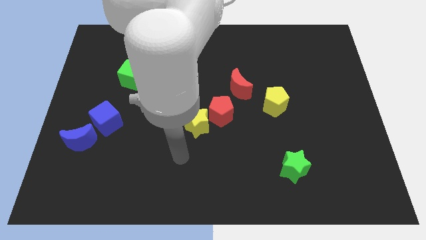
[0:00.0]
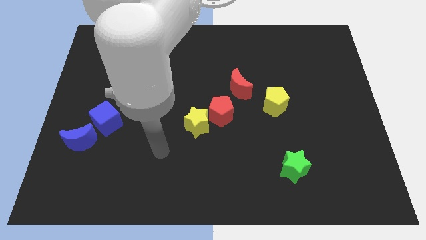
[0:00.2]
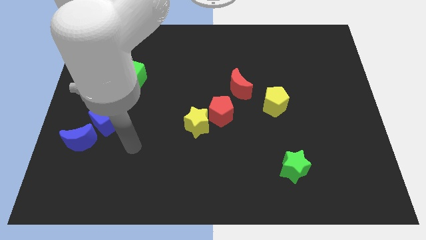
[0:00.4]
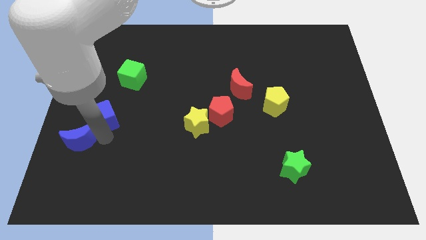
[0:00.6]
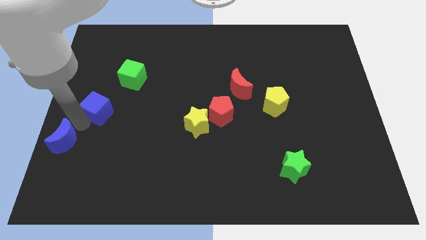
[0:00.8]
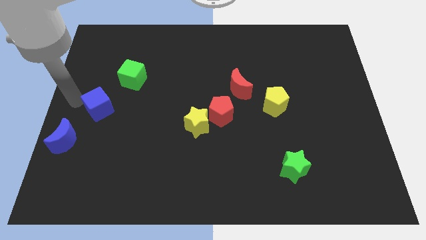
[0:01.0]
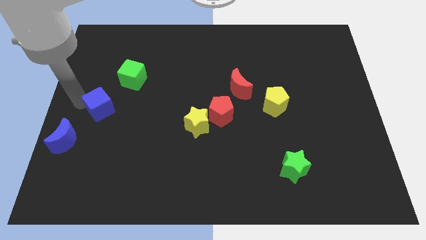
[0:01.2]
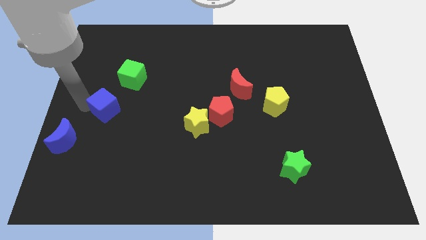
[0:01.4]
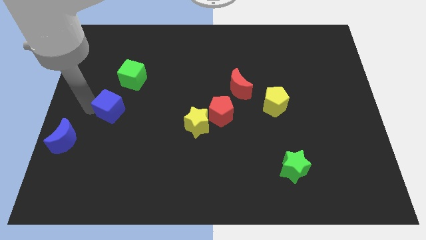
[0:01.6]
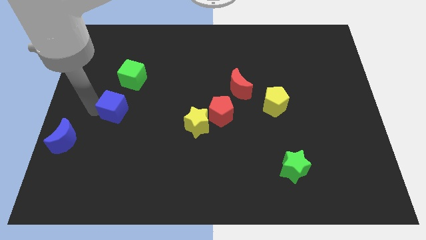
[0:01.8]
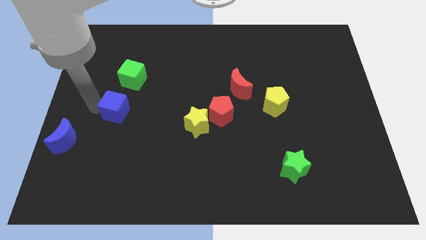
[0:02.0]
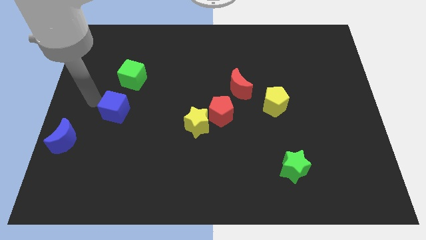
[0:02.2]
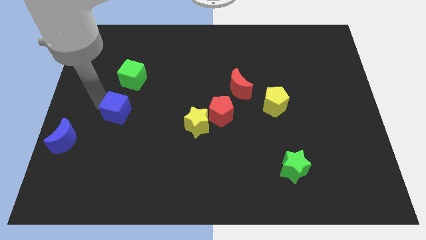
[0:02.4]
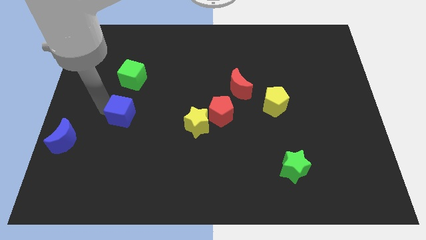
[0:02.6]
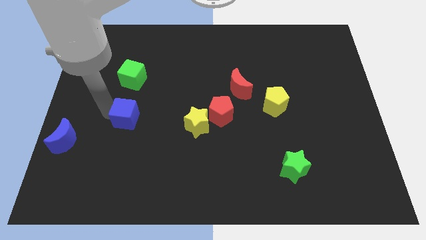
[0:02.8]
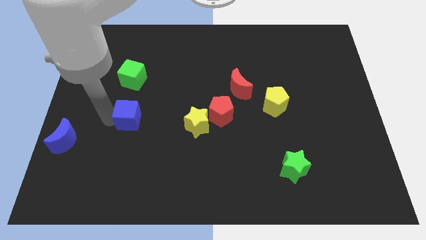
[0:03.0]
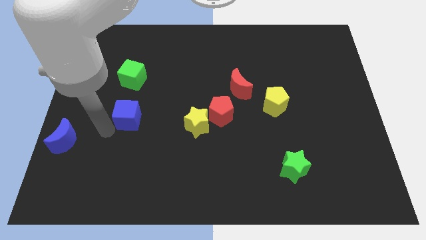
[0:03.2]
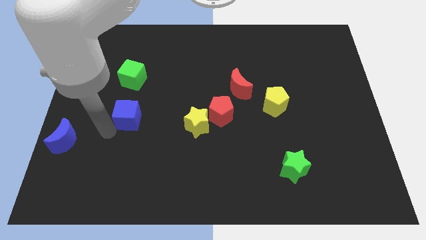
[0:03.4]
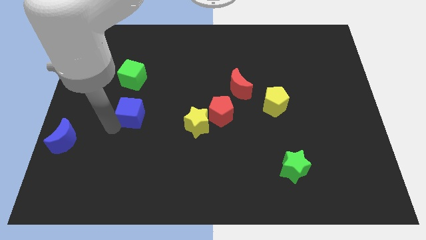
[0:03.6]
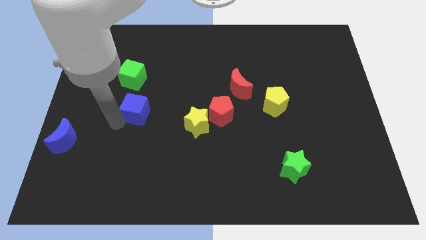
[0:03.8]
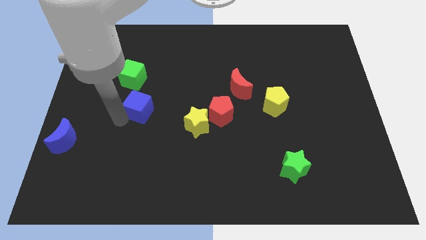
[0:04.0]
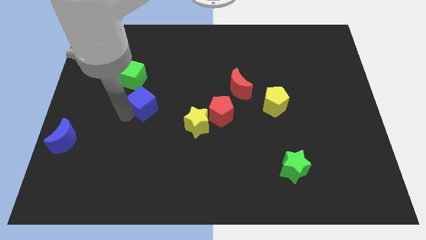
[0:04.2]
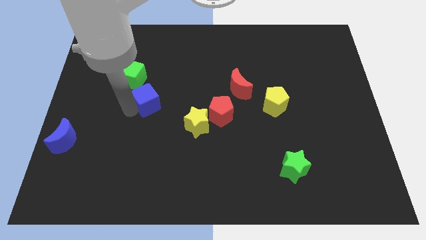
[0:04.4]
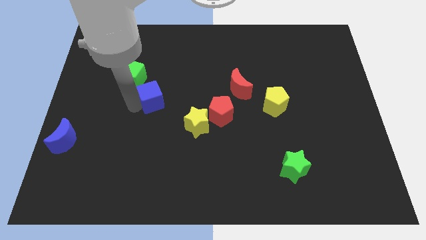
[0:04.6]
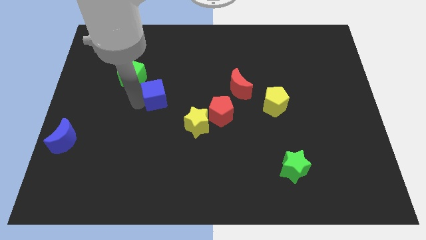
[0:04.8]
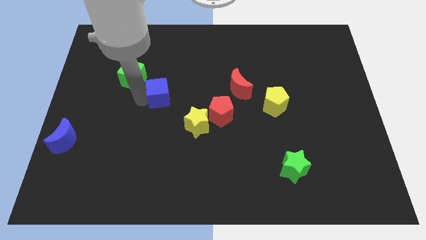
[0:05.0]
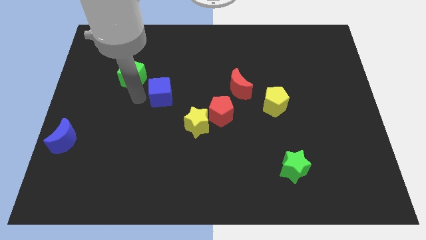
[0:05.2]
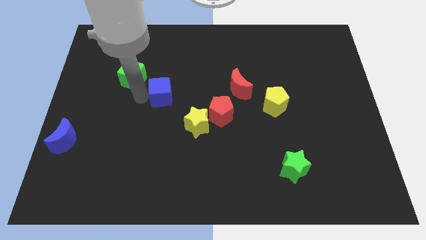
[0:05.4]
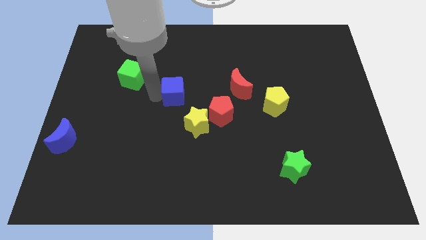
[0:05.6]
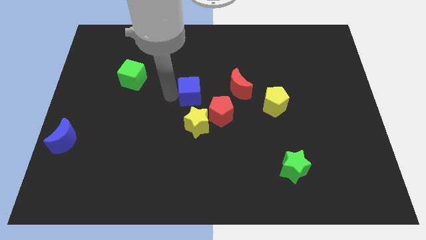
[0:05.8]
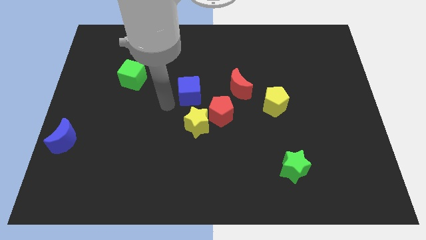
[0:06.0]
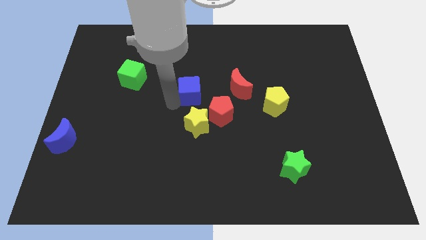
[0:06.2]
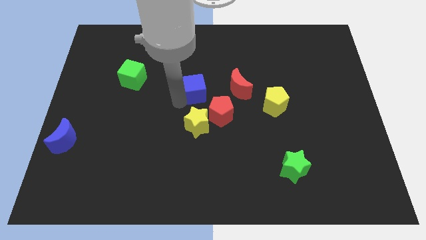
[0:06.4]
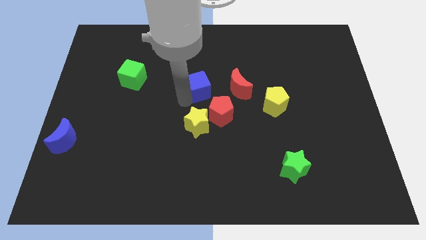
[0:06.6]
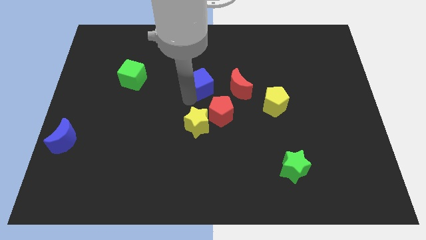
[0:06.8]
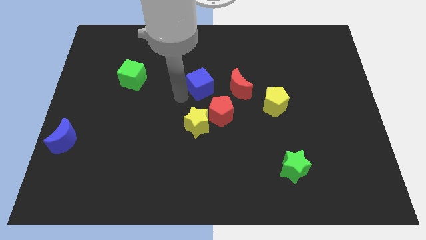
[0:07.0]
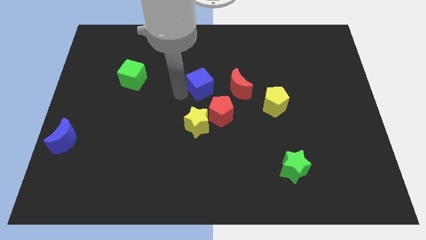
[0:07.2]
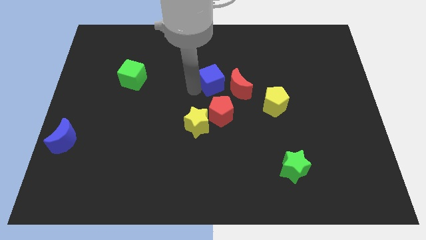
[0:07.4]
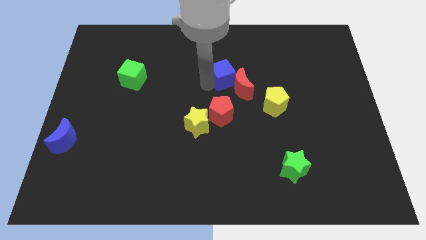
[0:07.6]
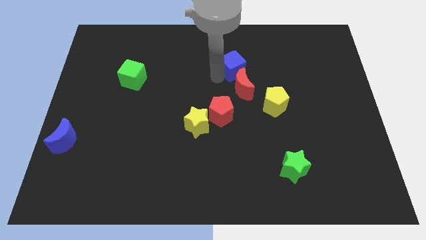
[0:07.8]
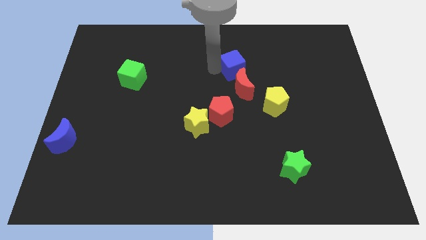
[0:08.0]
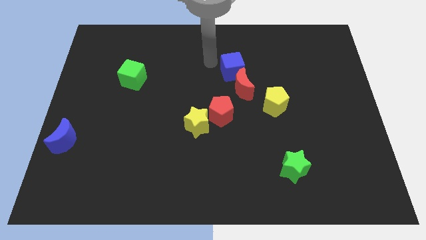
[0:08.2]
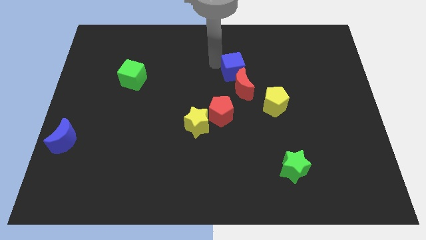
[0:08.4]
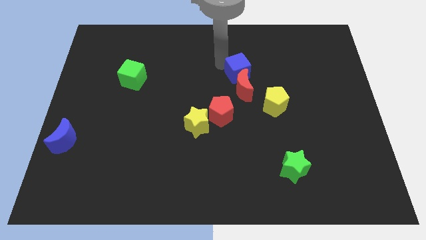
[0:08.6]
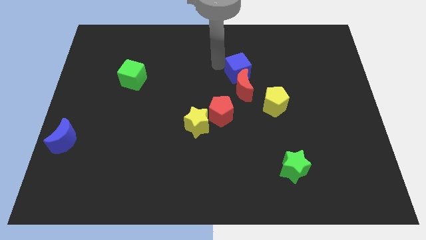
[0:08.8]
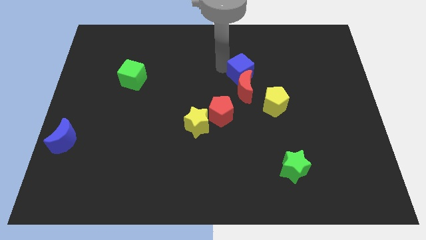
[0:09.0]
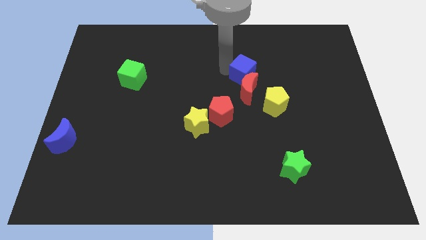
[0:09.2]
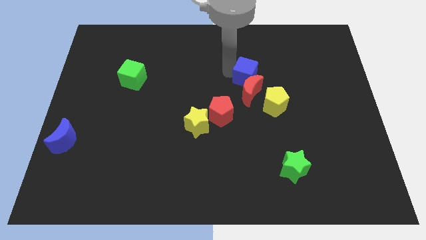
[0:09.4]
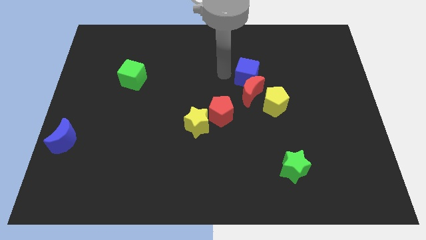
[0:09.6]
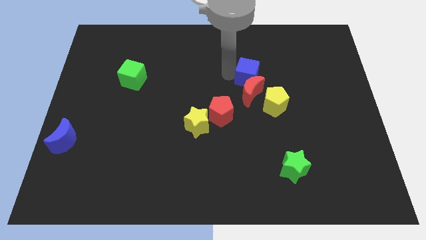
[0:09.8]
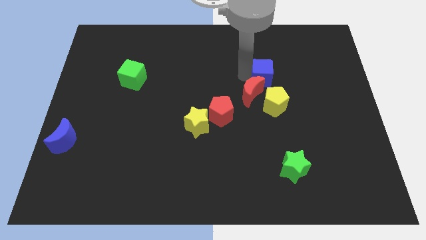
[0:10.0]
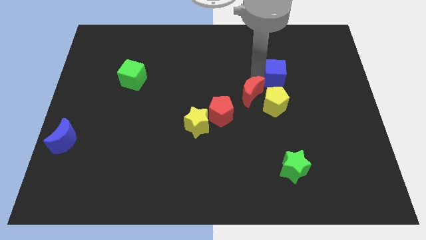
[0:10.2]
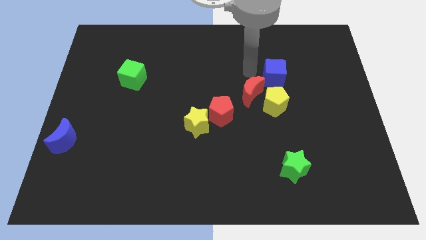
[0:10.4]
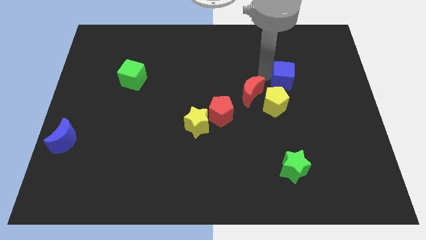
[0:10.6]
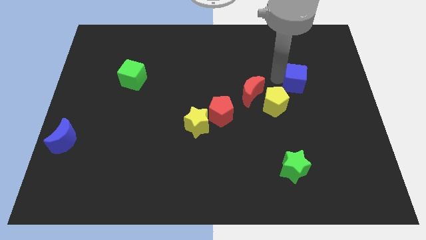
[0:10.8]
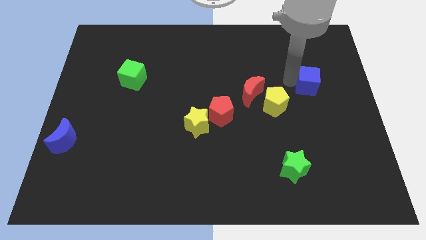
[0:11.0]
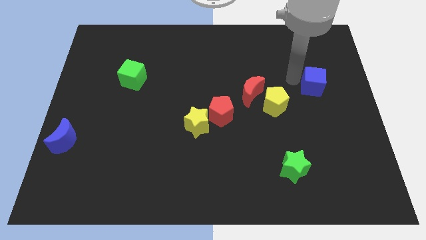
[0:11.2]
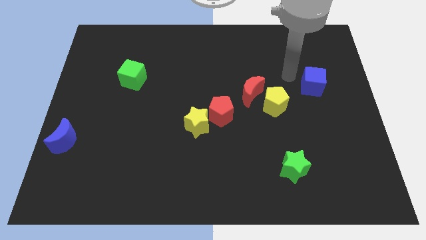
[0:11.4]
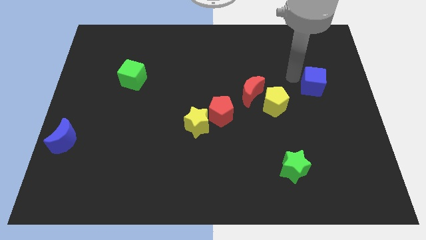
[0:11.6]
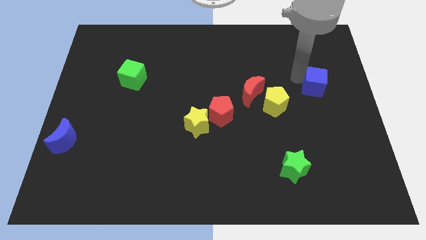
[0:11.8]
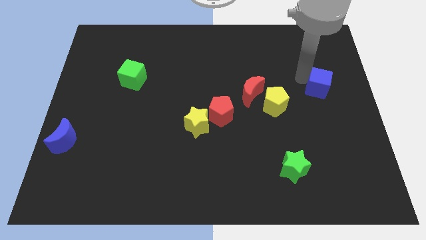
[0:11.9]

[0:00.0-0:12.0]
put the blue cube to the right side

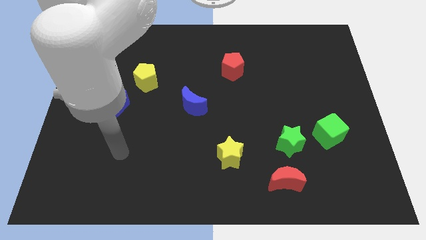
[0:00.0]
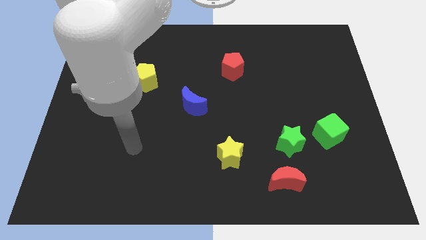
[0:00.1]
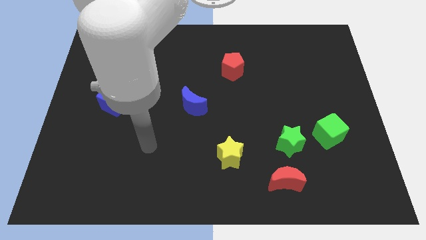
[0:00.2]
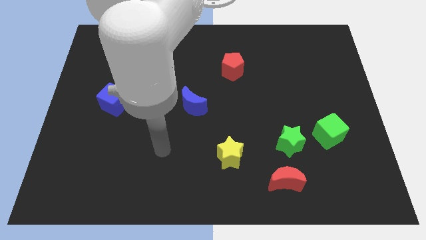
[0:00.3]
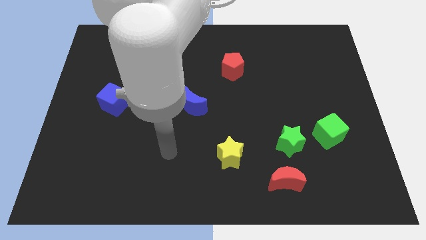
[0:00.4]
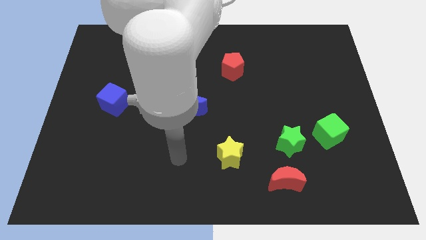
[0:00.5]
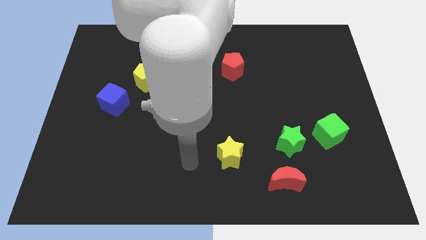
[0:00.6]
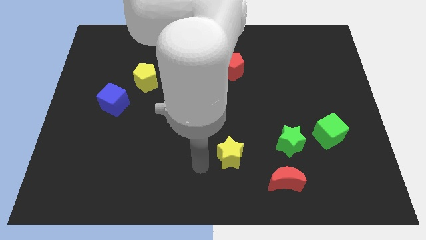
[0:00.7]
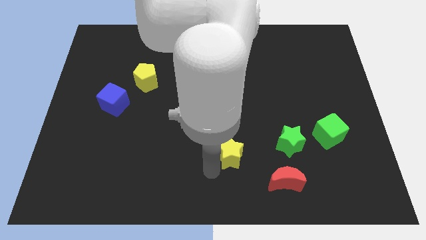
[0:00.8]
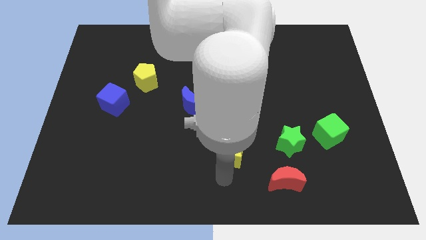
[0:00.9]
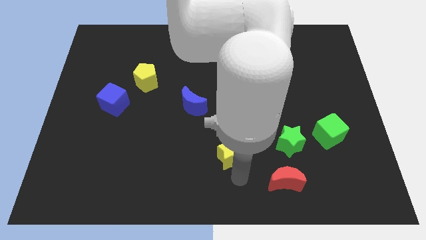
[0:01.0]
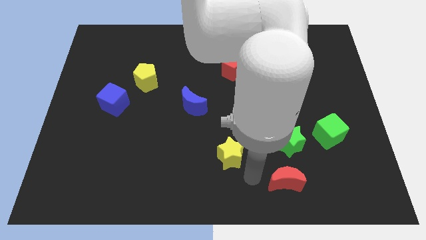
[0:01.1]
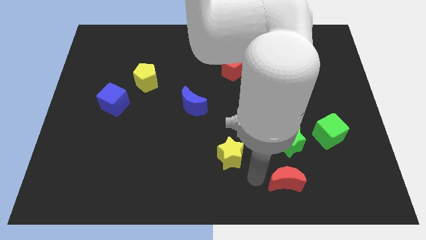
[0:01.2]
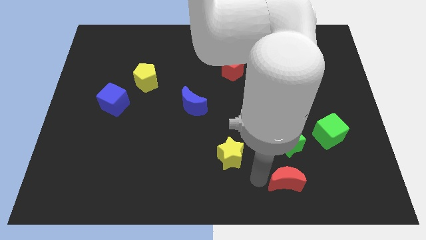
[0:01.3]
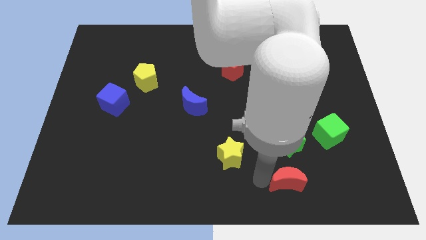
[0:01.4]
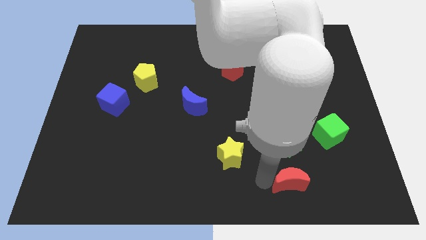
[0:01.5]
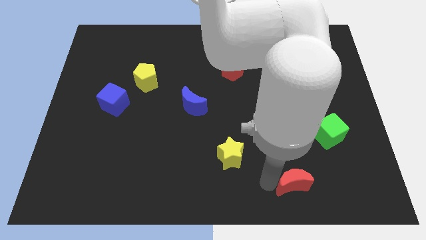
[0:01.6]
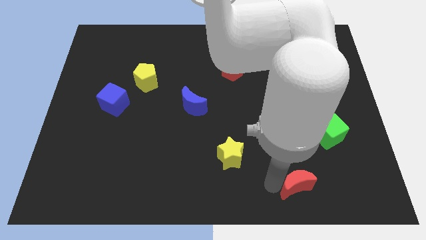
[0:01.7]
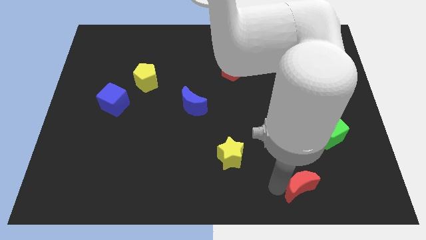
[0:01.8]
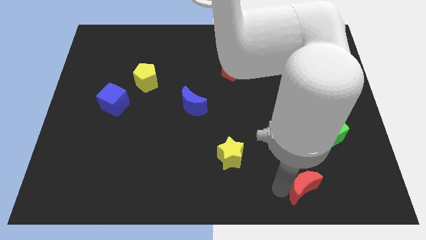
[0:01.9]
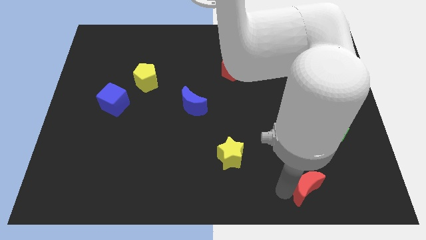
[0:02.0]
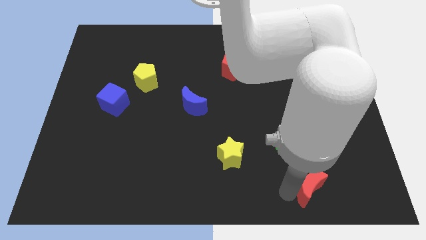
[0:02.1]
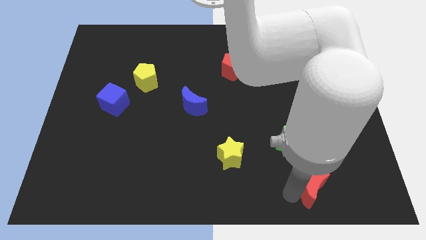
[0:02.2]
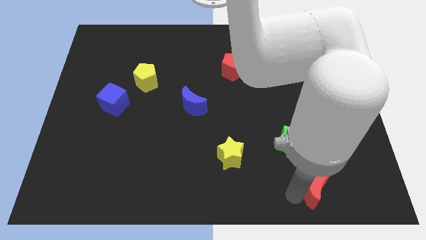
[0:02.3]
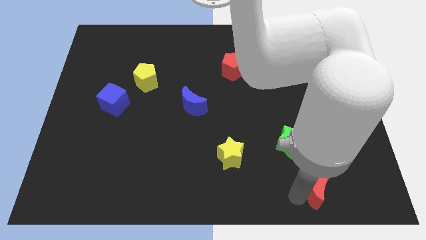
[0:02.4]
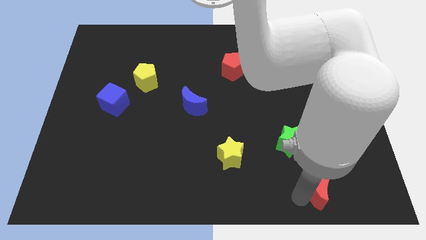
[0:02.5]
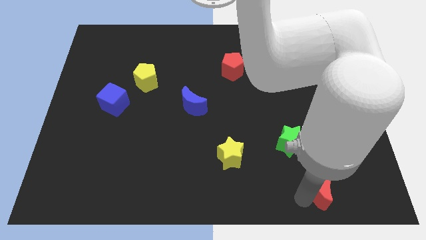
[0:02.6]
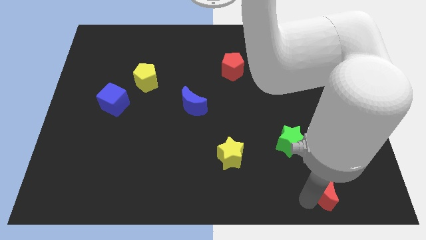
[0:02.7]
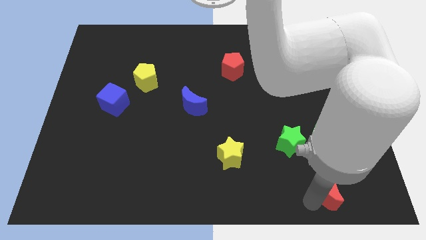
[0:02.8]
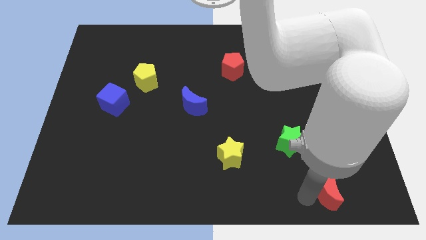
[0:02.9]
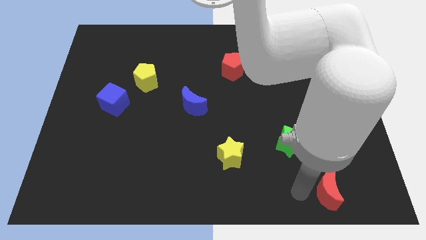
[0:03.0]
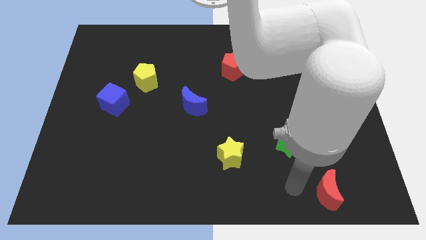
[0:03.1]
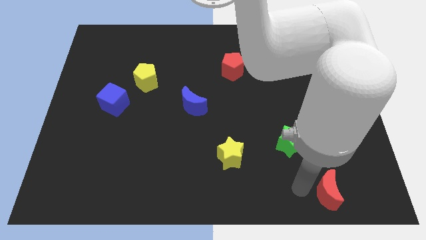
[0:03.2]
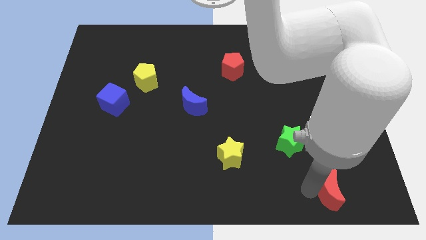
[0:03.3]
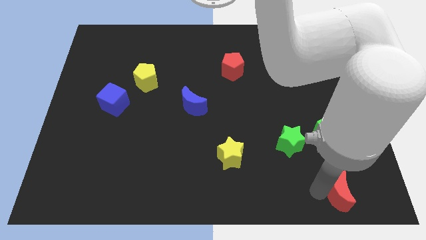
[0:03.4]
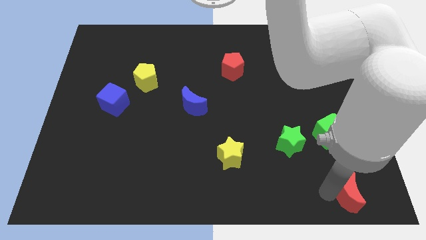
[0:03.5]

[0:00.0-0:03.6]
slide the red moon to the bottom right
